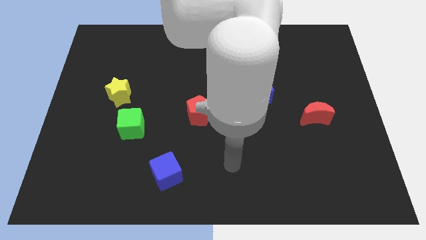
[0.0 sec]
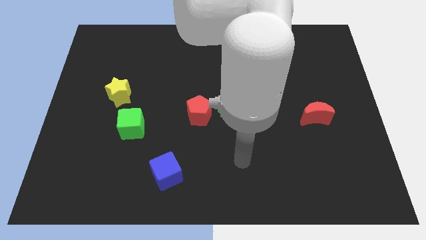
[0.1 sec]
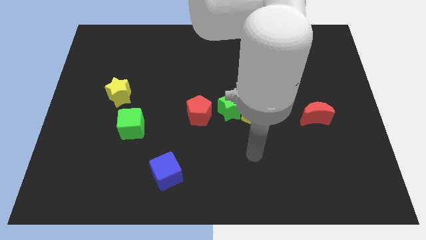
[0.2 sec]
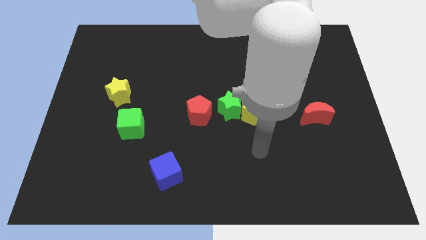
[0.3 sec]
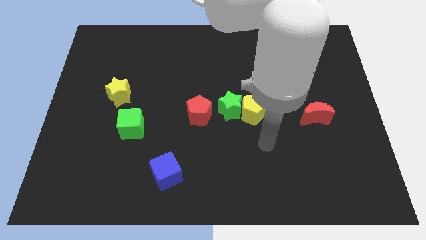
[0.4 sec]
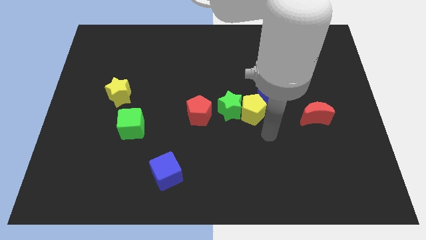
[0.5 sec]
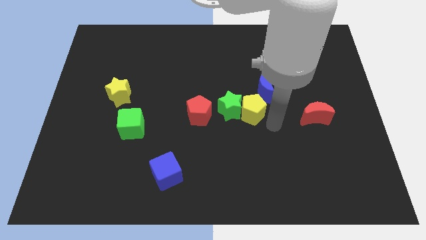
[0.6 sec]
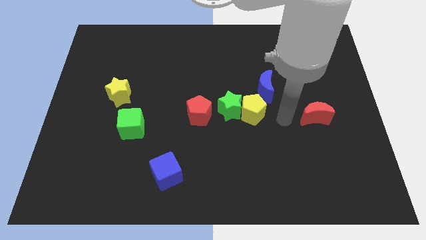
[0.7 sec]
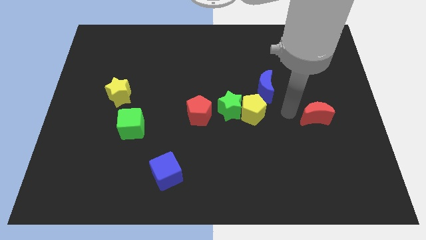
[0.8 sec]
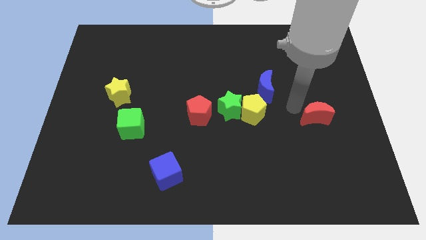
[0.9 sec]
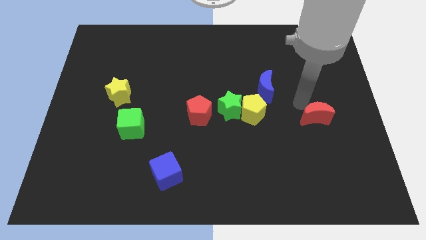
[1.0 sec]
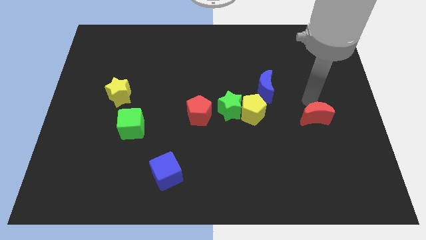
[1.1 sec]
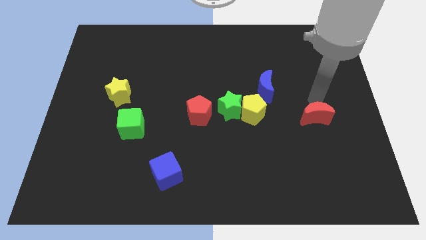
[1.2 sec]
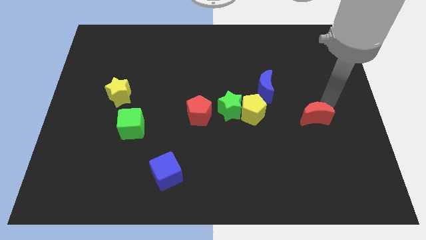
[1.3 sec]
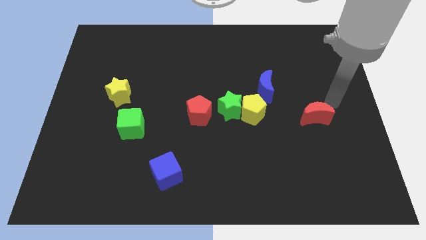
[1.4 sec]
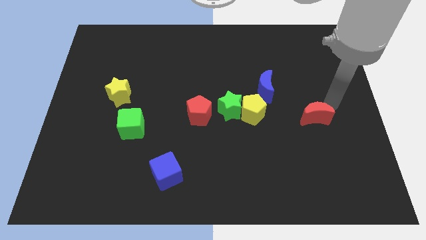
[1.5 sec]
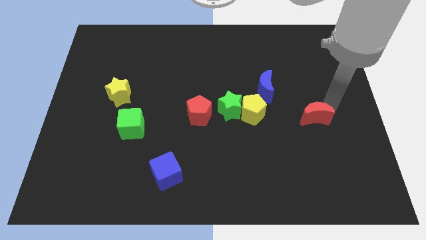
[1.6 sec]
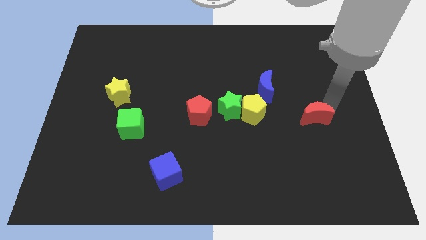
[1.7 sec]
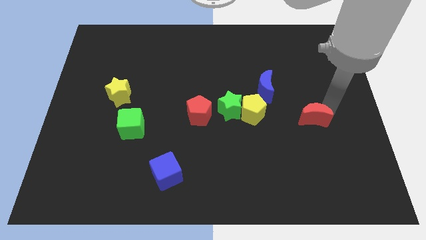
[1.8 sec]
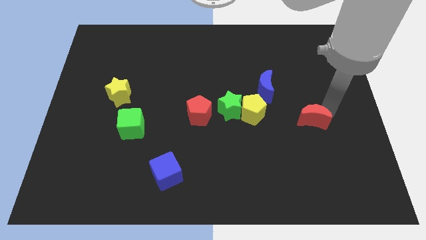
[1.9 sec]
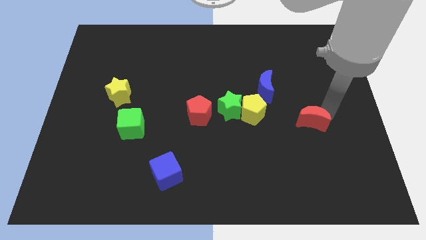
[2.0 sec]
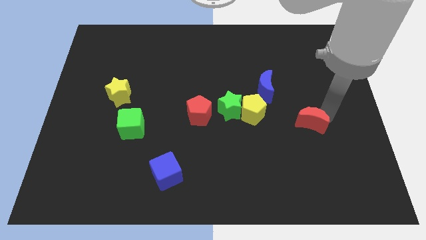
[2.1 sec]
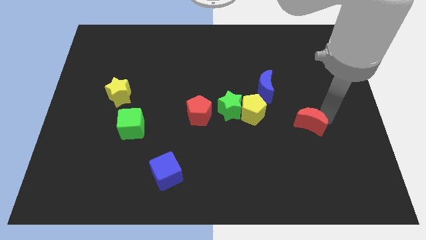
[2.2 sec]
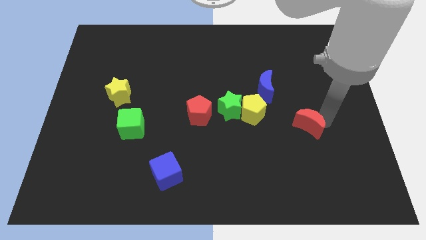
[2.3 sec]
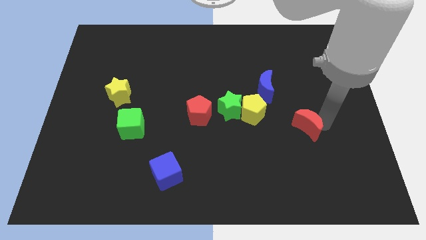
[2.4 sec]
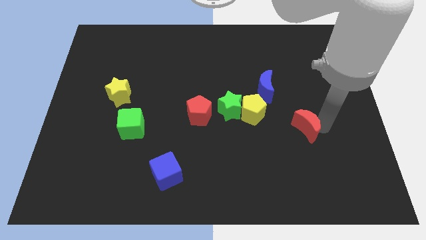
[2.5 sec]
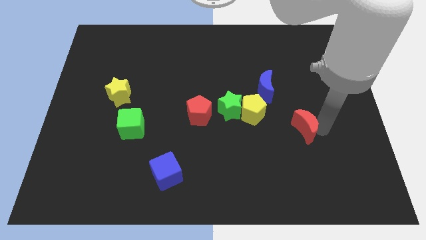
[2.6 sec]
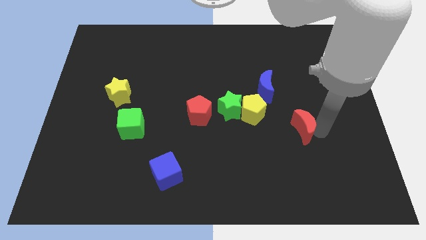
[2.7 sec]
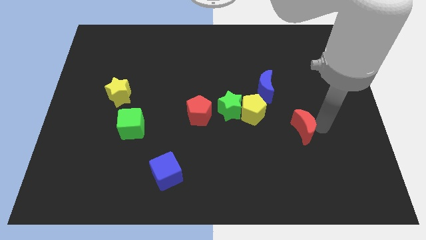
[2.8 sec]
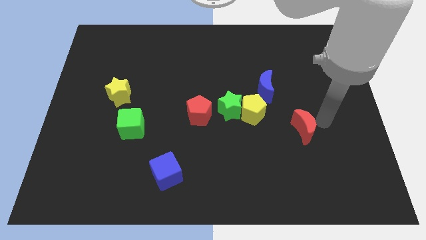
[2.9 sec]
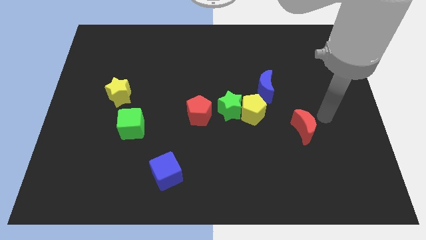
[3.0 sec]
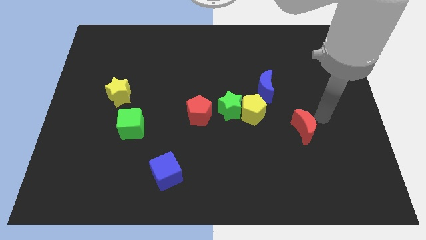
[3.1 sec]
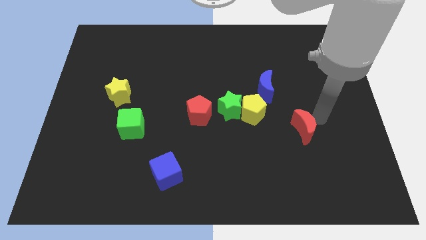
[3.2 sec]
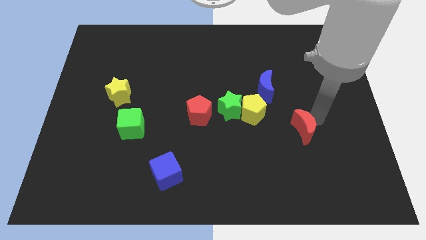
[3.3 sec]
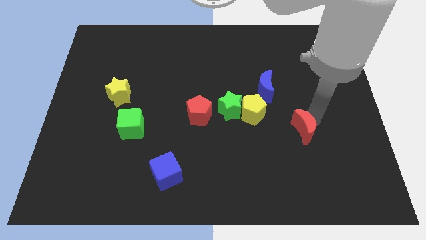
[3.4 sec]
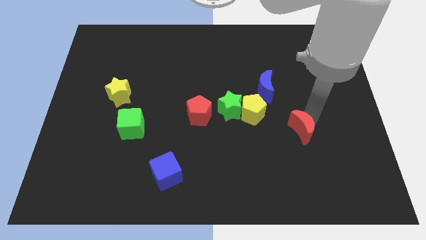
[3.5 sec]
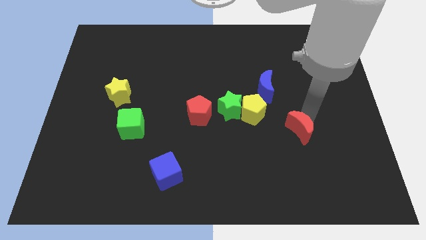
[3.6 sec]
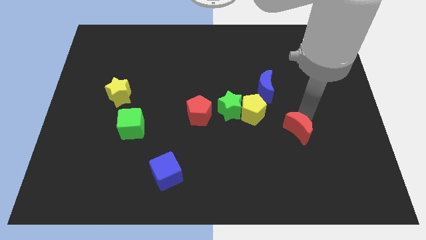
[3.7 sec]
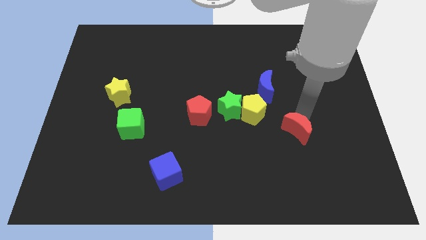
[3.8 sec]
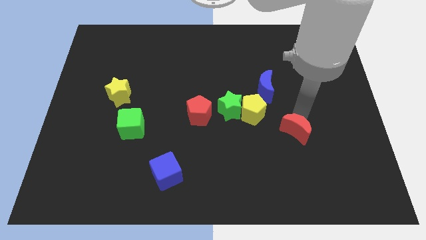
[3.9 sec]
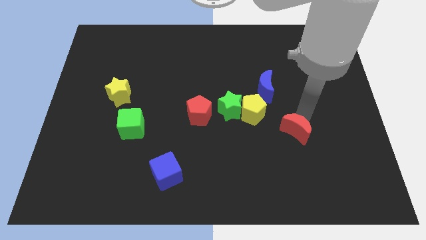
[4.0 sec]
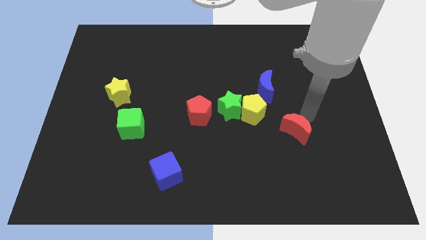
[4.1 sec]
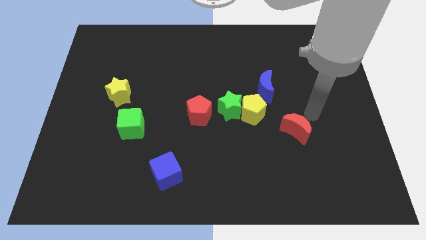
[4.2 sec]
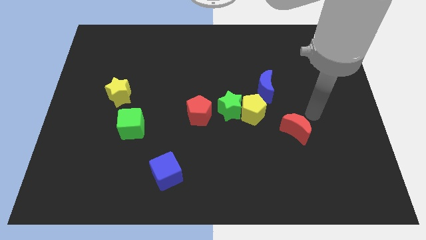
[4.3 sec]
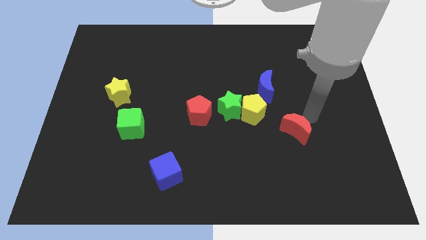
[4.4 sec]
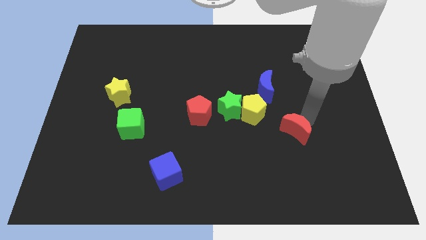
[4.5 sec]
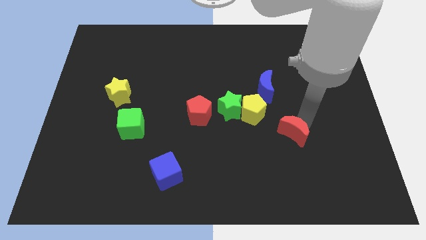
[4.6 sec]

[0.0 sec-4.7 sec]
slide the red moon slightly downwards and then to the left

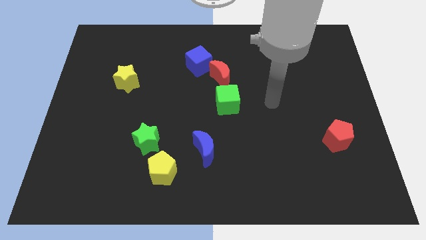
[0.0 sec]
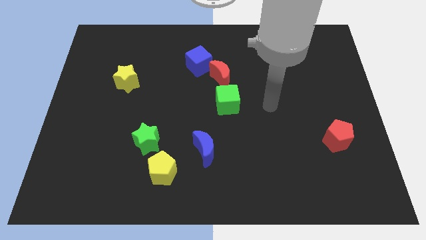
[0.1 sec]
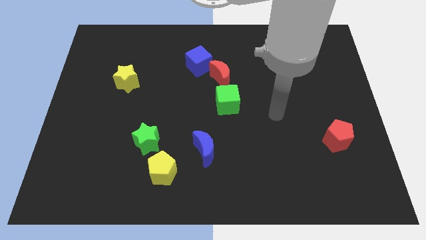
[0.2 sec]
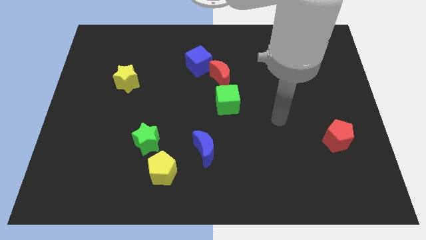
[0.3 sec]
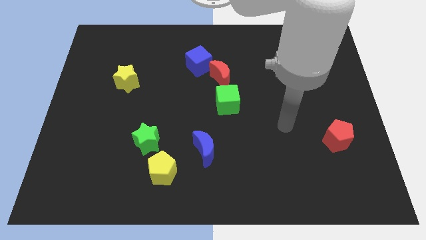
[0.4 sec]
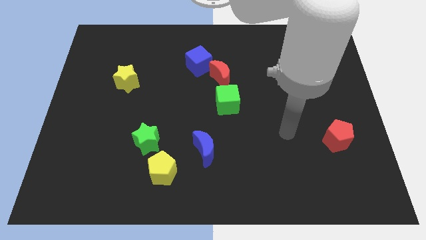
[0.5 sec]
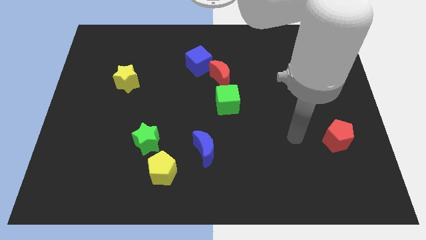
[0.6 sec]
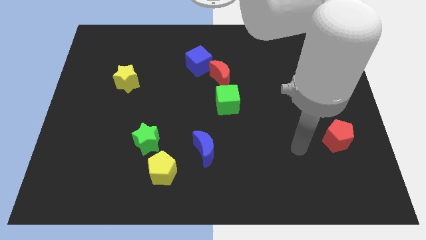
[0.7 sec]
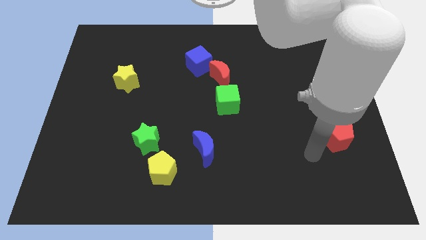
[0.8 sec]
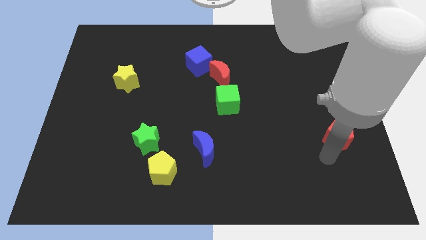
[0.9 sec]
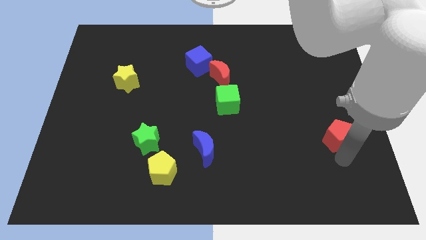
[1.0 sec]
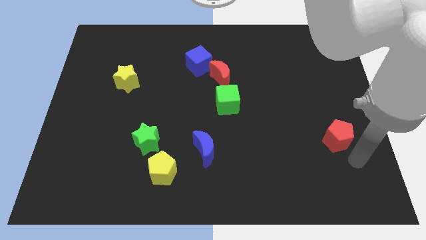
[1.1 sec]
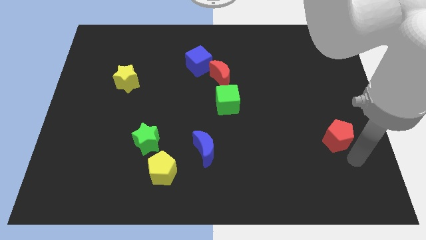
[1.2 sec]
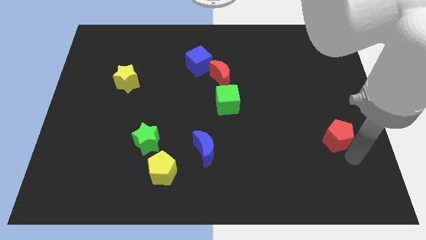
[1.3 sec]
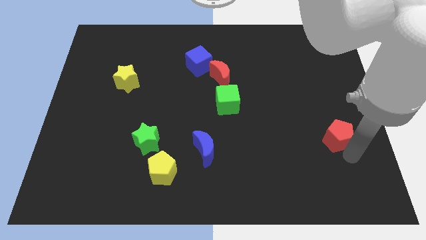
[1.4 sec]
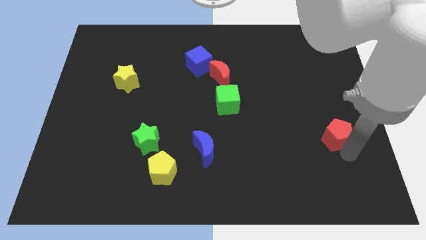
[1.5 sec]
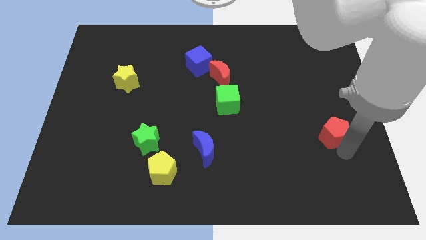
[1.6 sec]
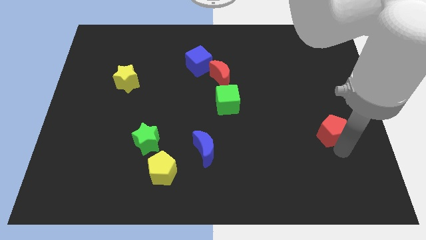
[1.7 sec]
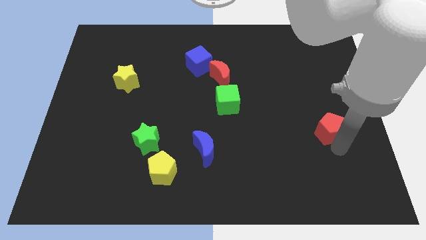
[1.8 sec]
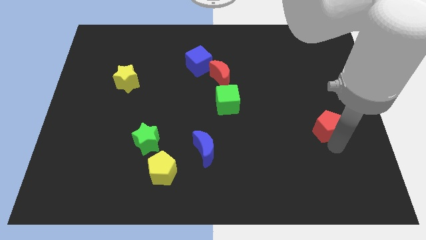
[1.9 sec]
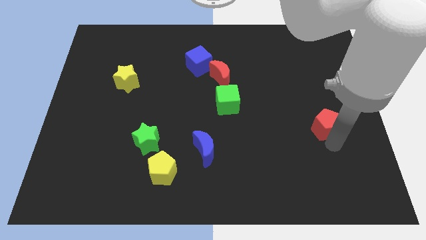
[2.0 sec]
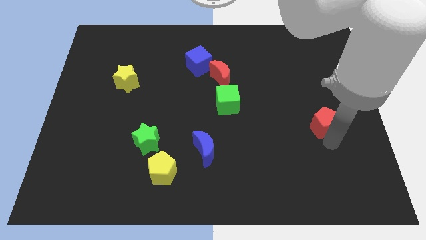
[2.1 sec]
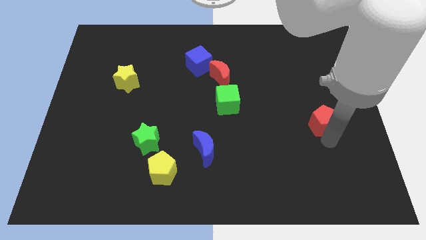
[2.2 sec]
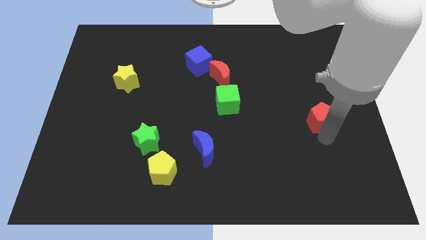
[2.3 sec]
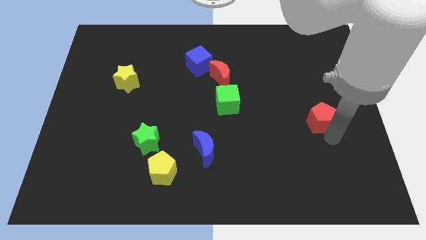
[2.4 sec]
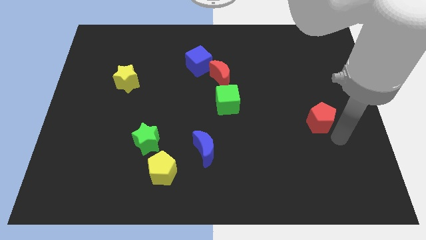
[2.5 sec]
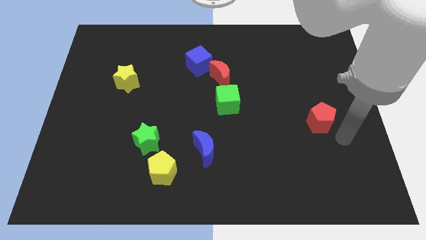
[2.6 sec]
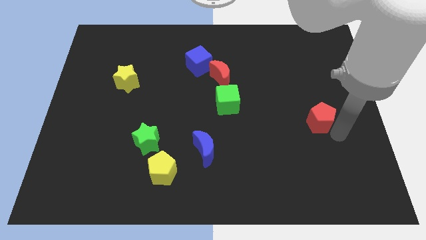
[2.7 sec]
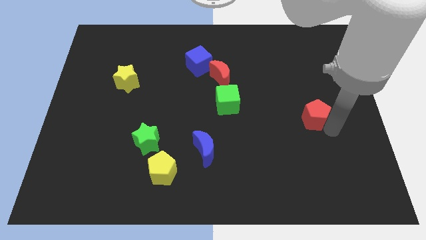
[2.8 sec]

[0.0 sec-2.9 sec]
slightly move the red pentagon diagonally upwards and left
